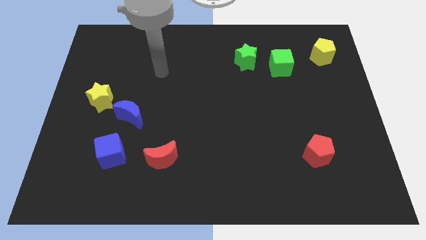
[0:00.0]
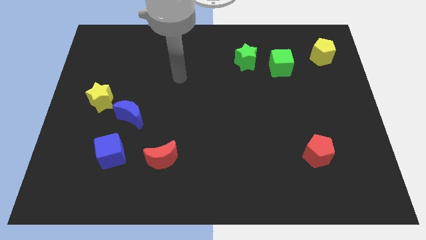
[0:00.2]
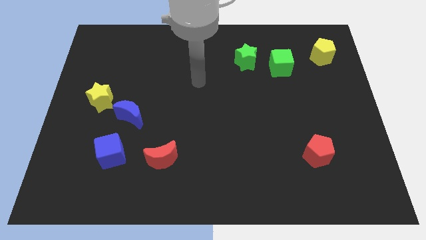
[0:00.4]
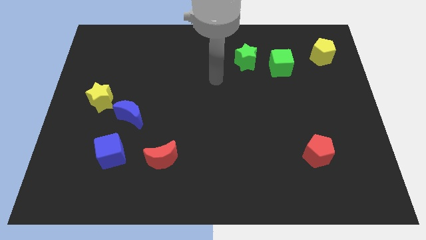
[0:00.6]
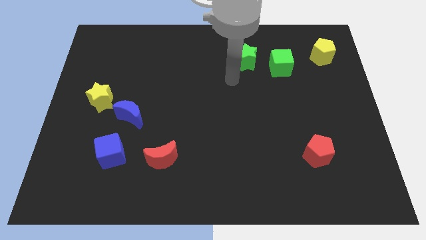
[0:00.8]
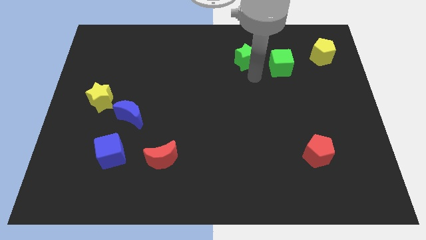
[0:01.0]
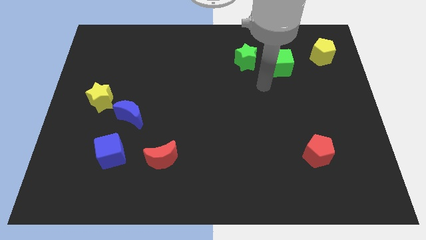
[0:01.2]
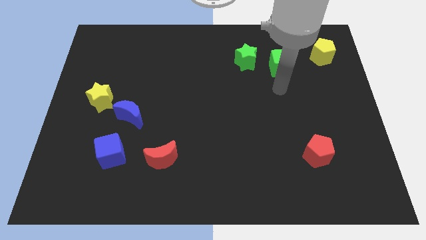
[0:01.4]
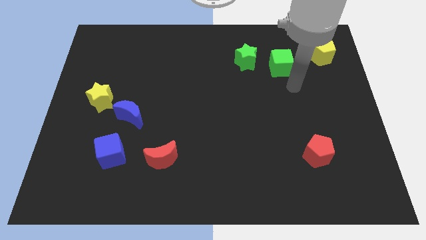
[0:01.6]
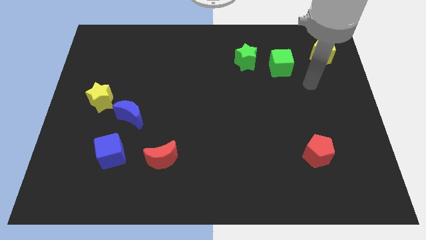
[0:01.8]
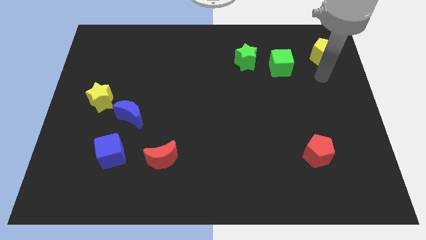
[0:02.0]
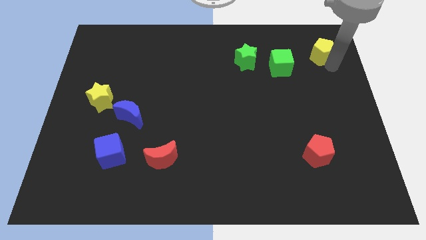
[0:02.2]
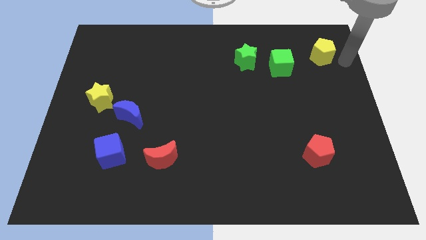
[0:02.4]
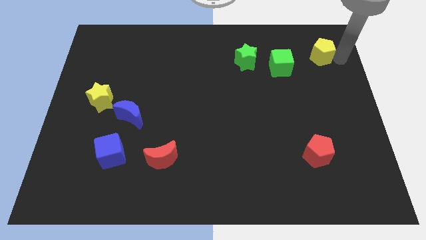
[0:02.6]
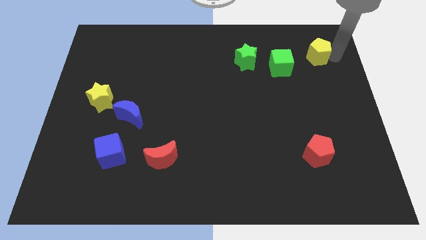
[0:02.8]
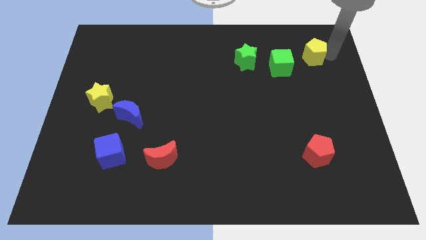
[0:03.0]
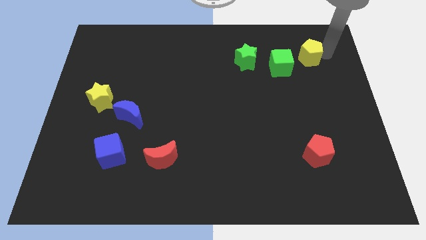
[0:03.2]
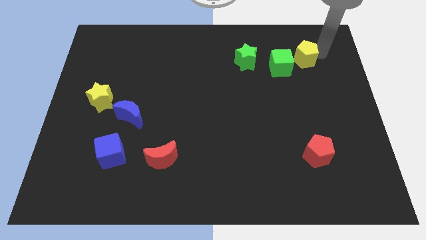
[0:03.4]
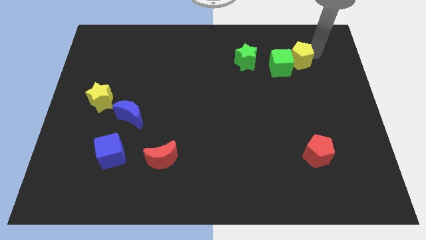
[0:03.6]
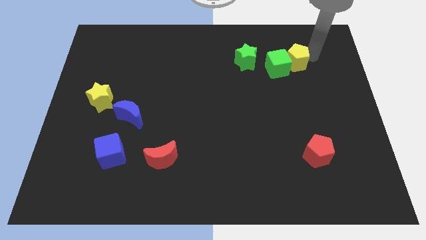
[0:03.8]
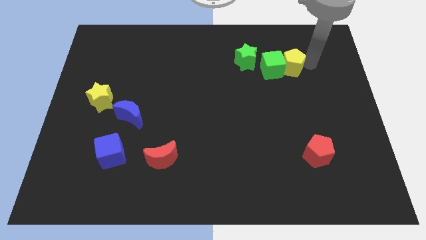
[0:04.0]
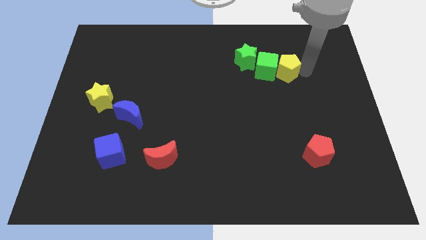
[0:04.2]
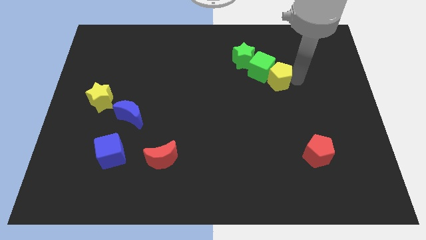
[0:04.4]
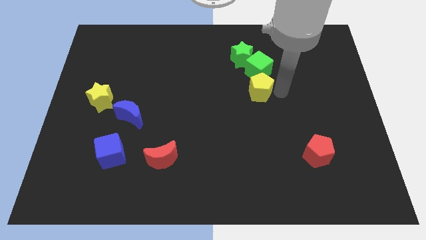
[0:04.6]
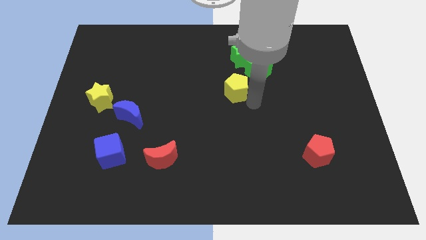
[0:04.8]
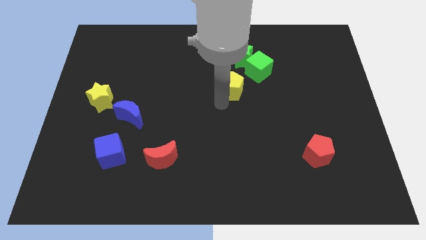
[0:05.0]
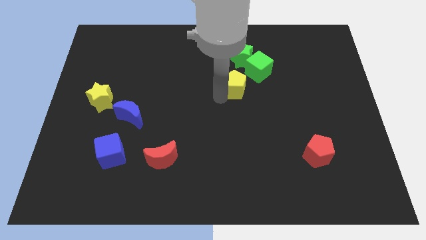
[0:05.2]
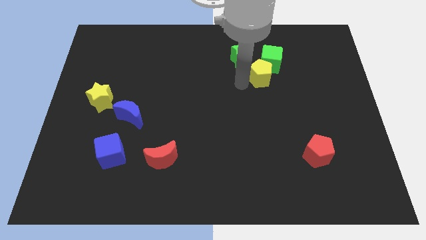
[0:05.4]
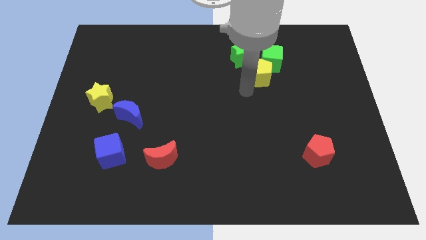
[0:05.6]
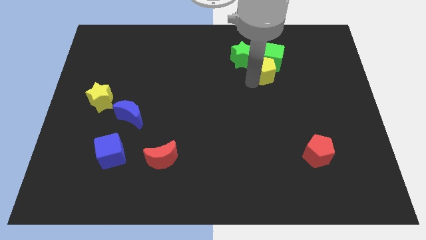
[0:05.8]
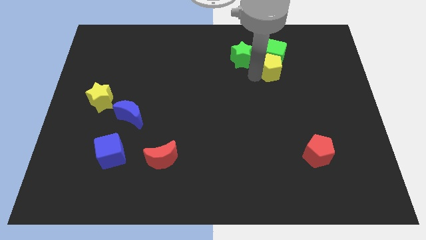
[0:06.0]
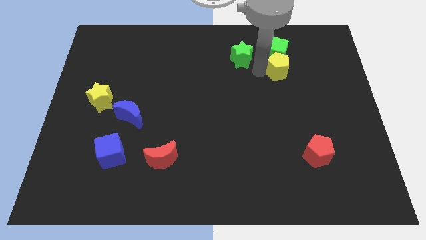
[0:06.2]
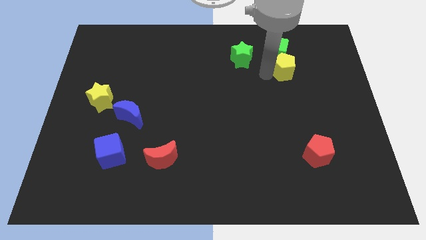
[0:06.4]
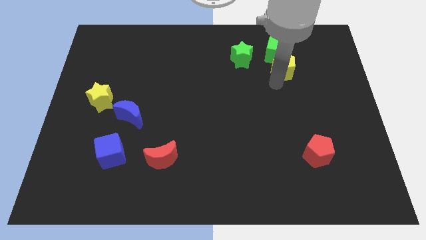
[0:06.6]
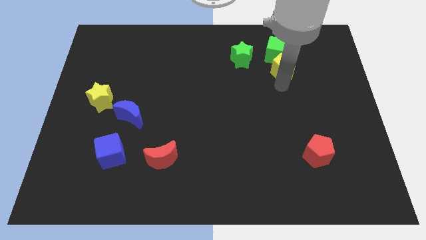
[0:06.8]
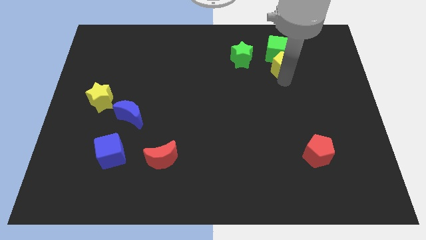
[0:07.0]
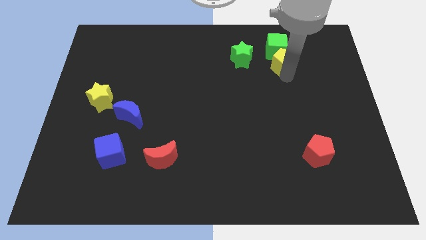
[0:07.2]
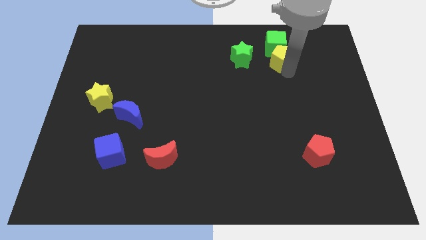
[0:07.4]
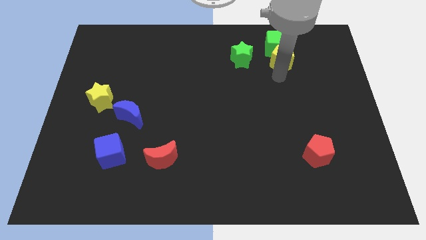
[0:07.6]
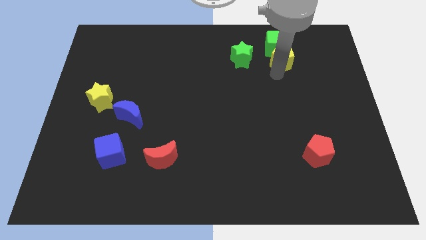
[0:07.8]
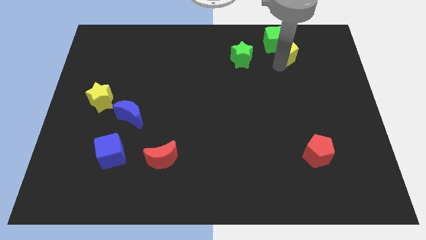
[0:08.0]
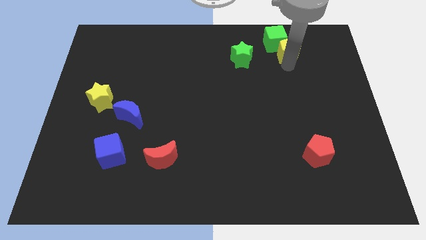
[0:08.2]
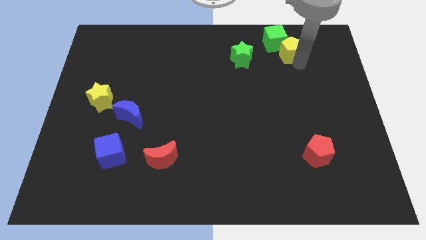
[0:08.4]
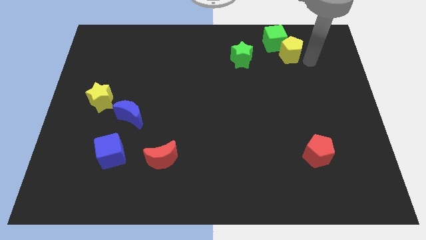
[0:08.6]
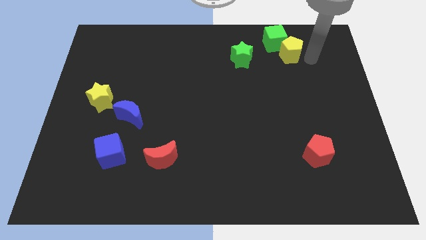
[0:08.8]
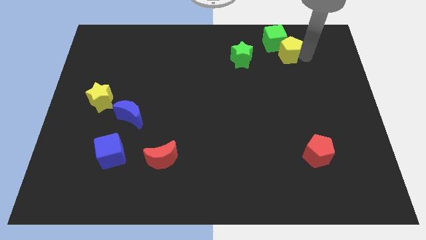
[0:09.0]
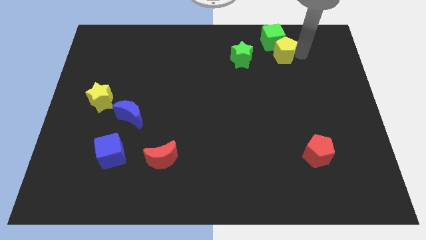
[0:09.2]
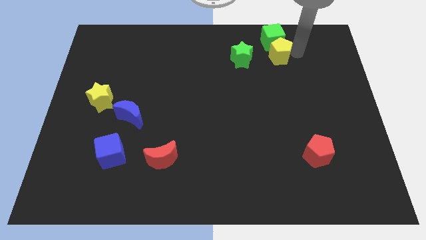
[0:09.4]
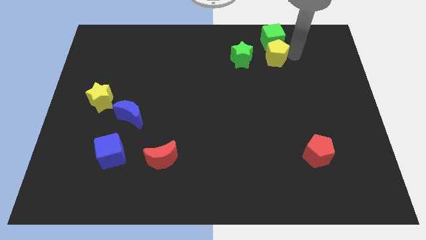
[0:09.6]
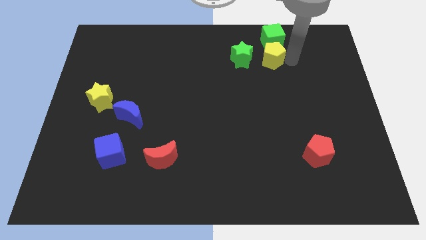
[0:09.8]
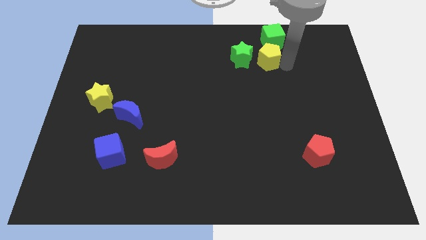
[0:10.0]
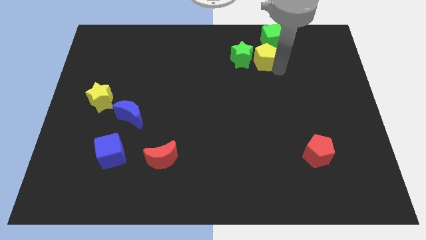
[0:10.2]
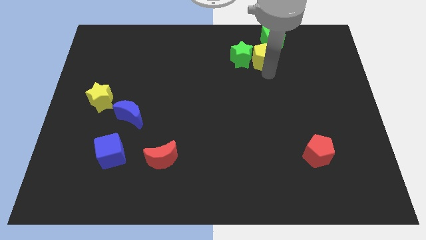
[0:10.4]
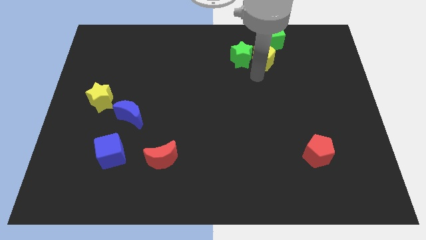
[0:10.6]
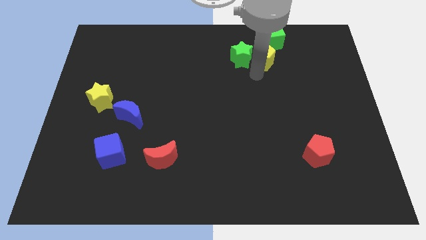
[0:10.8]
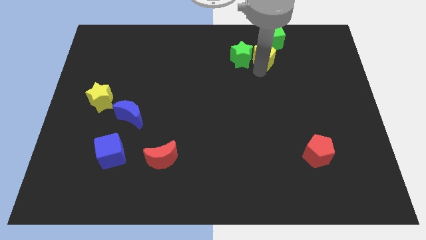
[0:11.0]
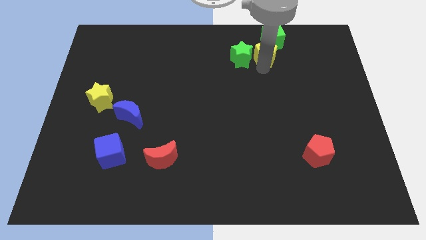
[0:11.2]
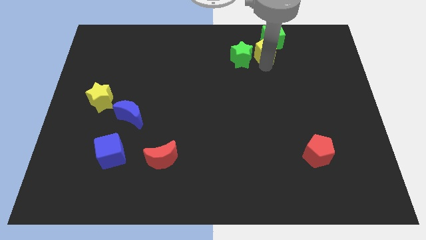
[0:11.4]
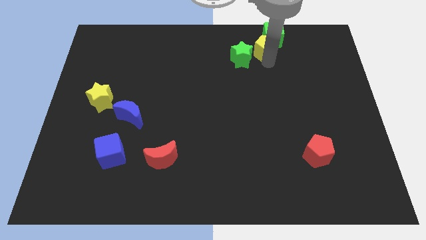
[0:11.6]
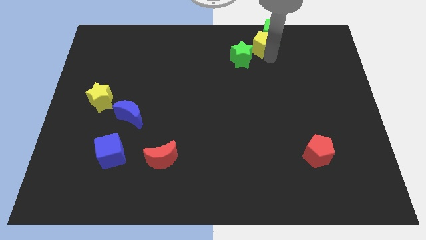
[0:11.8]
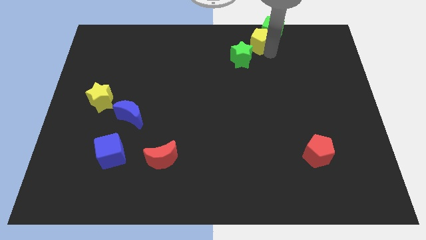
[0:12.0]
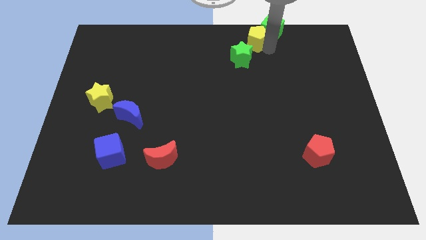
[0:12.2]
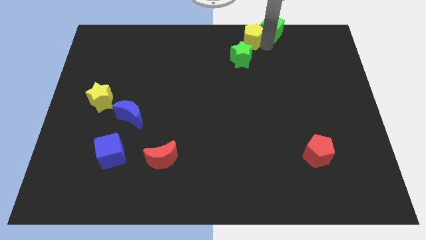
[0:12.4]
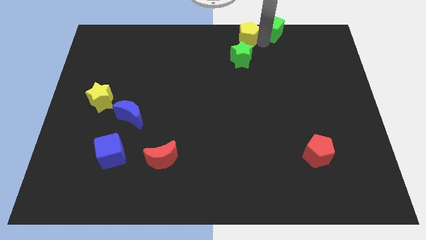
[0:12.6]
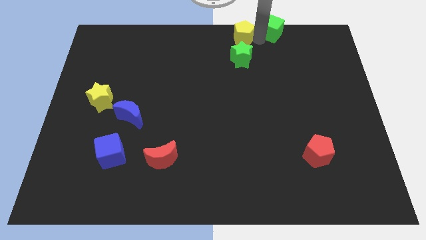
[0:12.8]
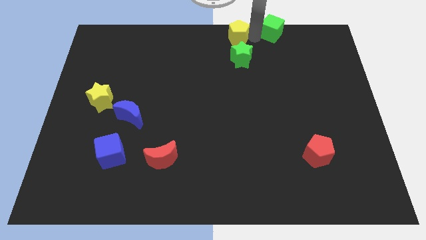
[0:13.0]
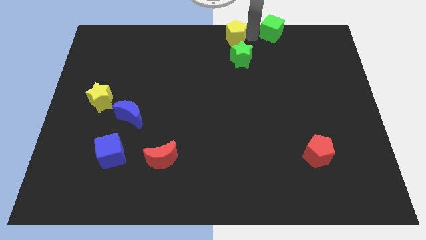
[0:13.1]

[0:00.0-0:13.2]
move the yellow pentagon to the left

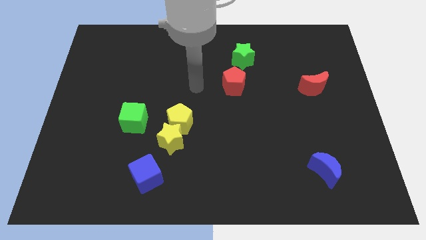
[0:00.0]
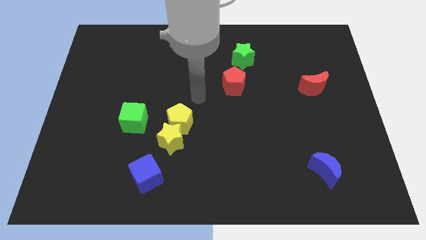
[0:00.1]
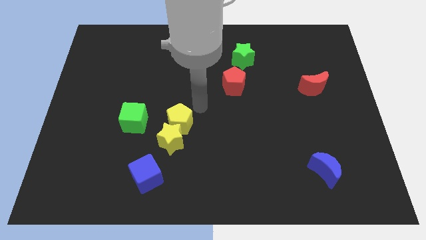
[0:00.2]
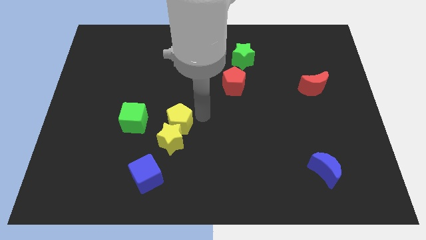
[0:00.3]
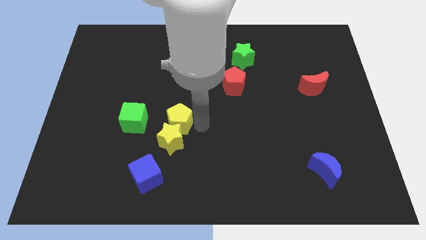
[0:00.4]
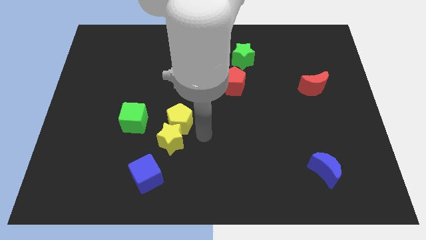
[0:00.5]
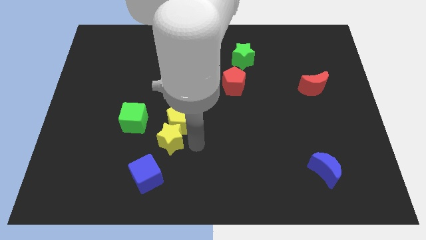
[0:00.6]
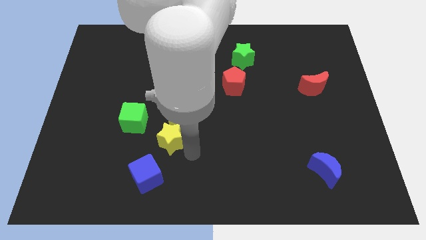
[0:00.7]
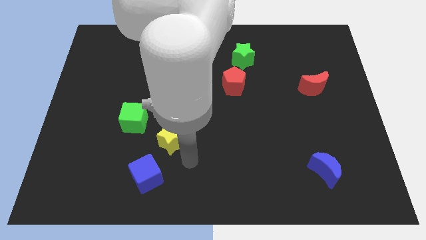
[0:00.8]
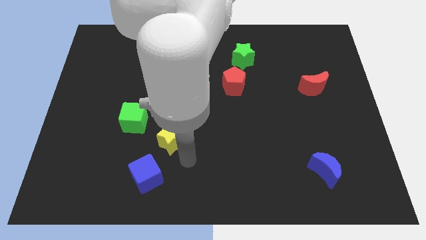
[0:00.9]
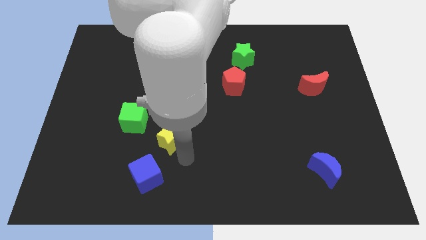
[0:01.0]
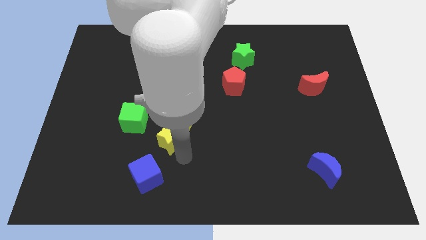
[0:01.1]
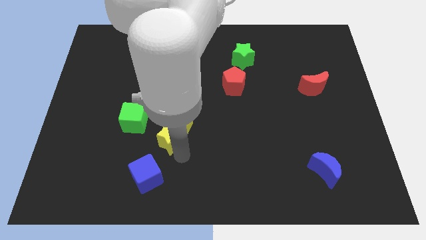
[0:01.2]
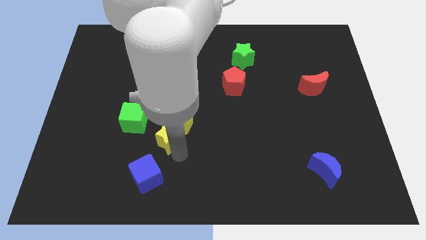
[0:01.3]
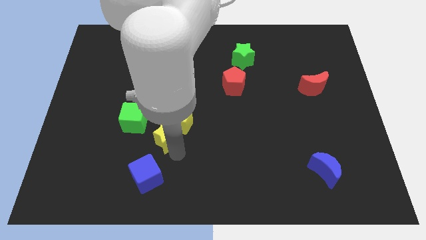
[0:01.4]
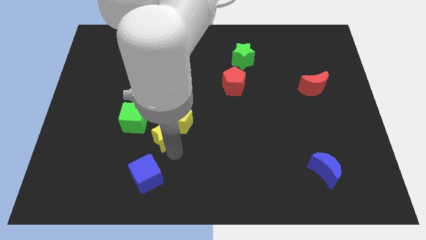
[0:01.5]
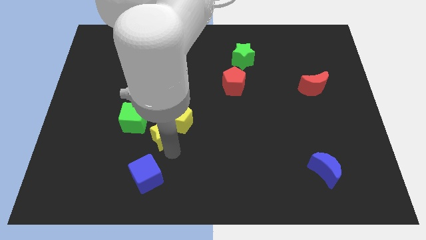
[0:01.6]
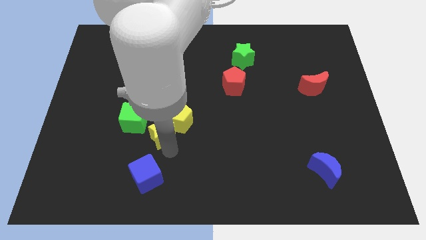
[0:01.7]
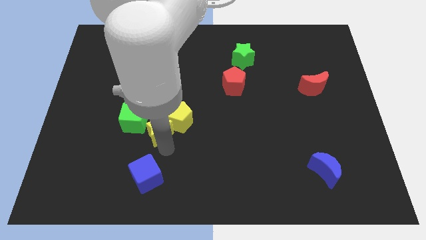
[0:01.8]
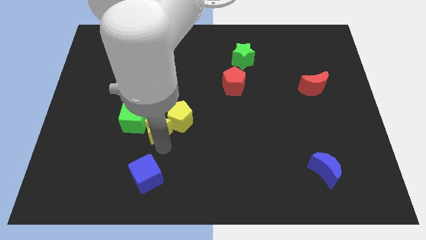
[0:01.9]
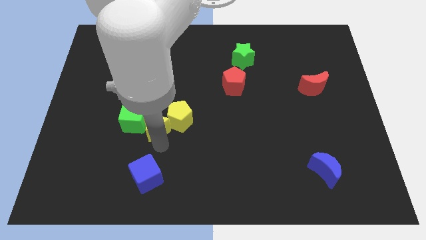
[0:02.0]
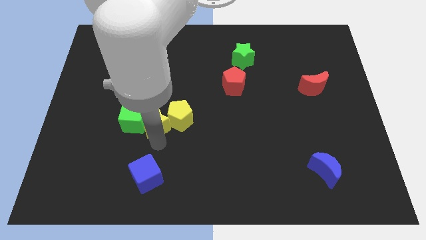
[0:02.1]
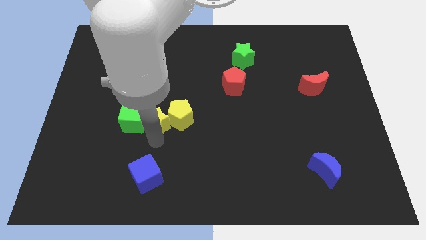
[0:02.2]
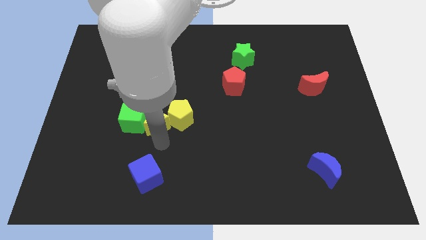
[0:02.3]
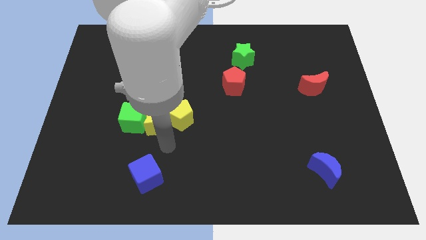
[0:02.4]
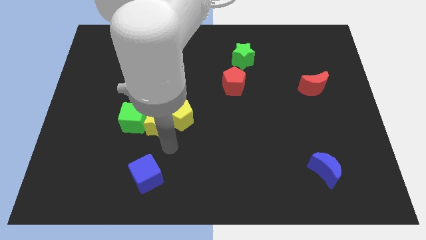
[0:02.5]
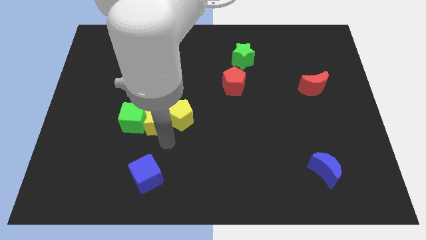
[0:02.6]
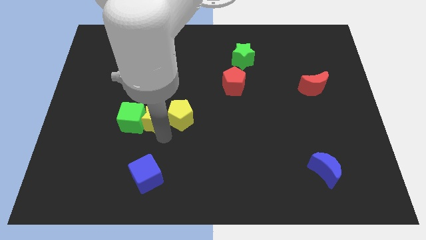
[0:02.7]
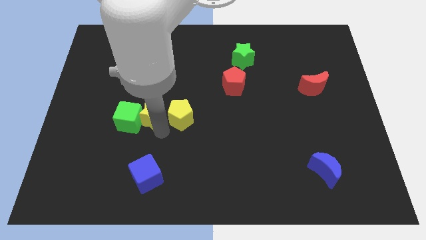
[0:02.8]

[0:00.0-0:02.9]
move the yellow star up and then to the left somewhat
